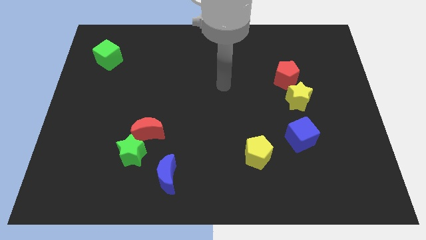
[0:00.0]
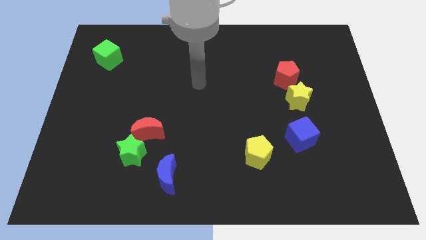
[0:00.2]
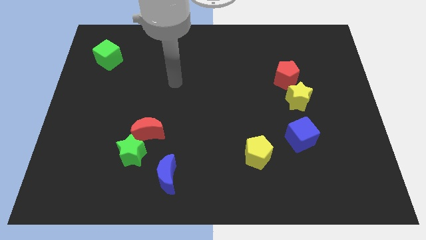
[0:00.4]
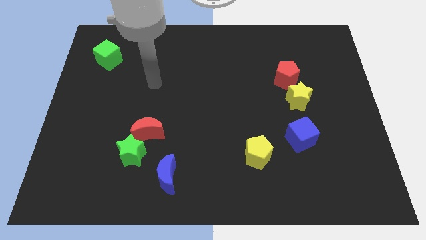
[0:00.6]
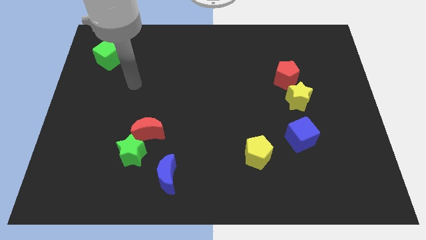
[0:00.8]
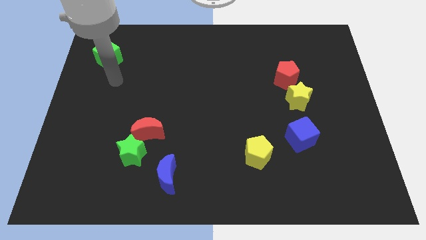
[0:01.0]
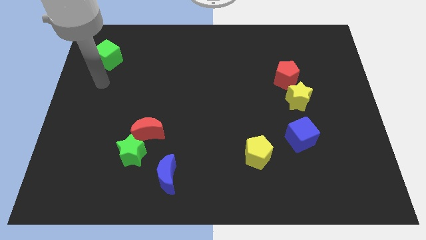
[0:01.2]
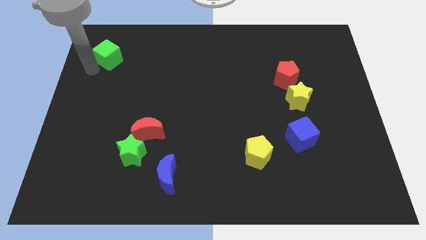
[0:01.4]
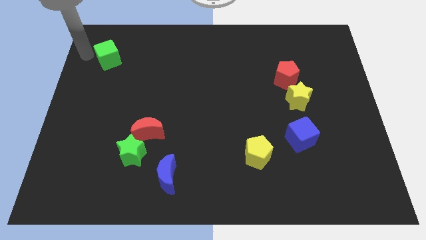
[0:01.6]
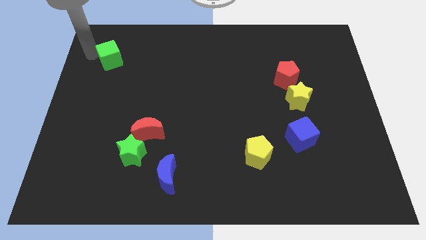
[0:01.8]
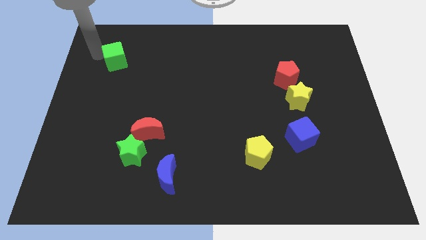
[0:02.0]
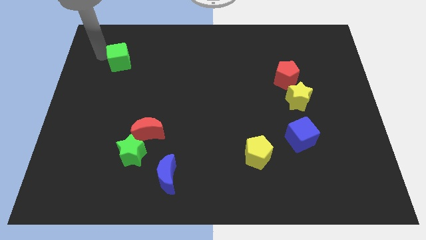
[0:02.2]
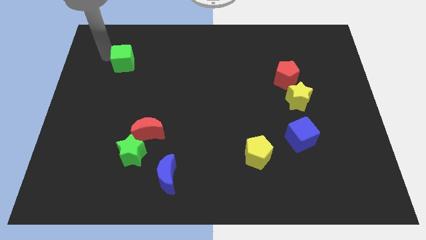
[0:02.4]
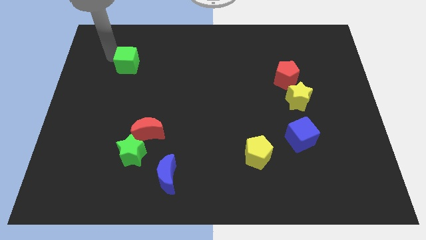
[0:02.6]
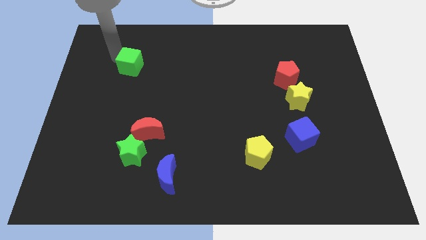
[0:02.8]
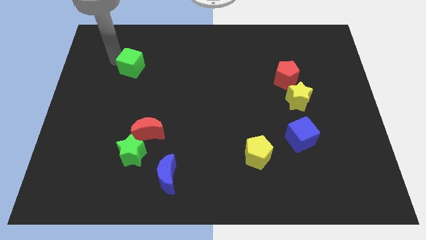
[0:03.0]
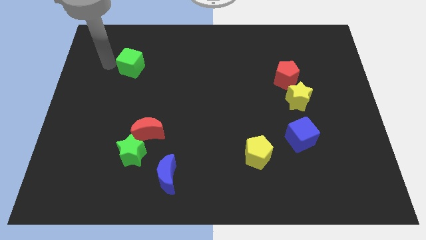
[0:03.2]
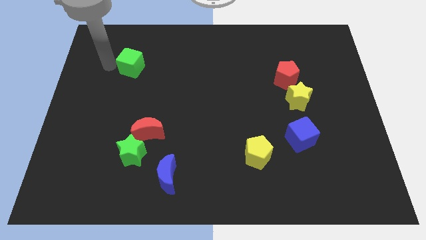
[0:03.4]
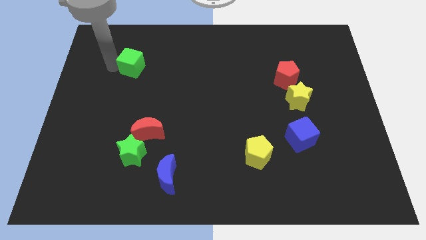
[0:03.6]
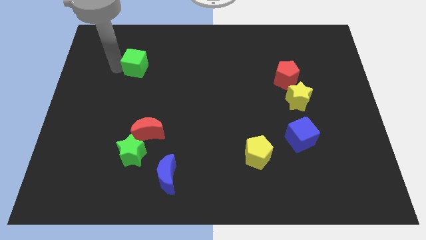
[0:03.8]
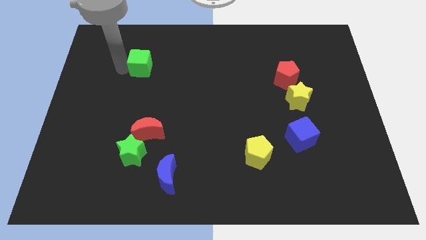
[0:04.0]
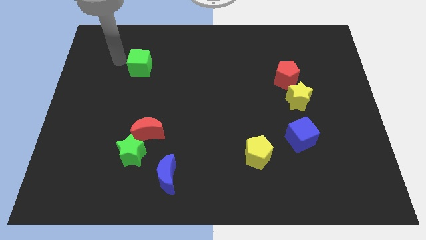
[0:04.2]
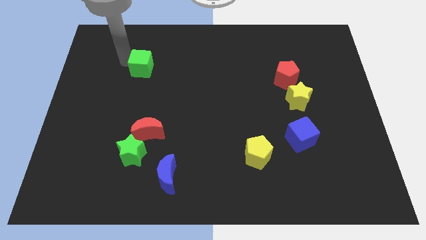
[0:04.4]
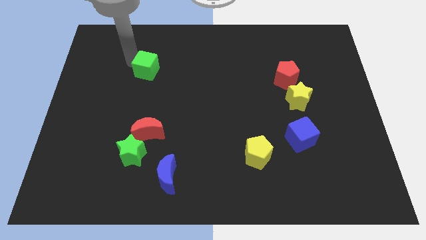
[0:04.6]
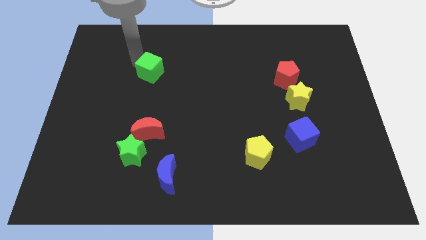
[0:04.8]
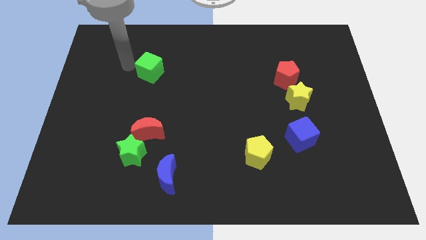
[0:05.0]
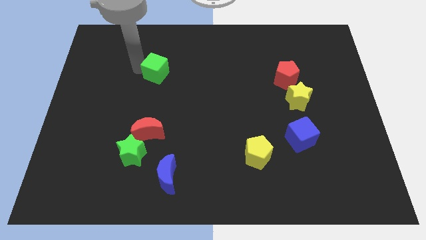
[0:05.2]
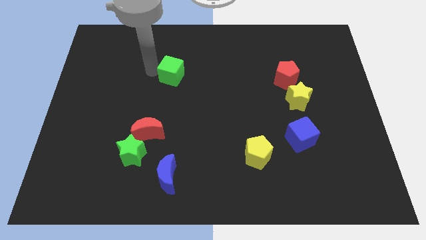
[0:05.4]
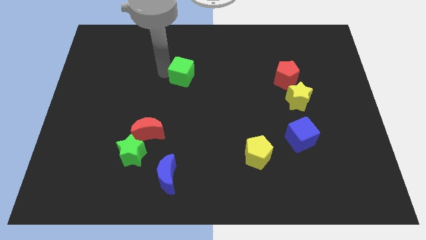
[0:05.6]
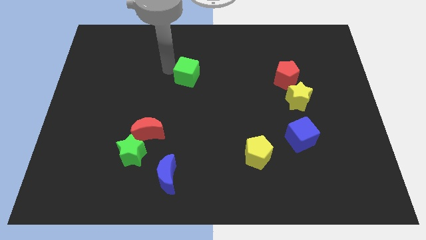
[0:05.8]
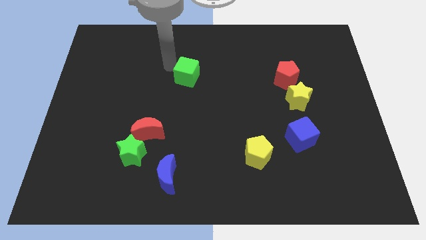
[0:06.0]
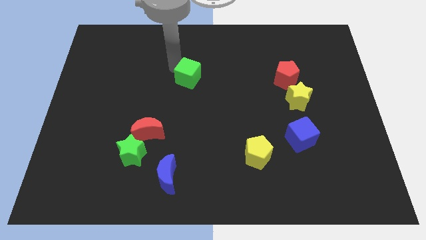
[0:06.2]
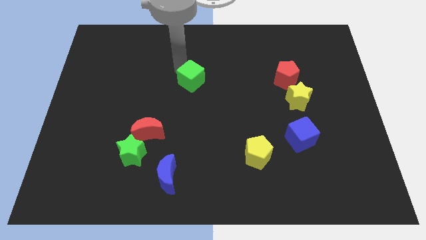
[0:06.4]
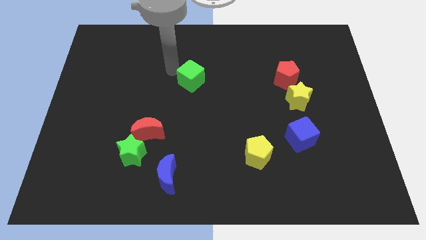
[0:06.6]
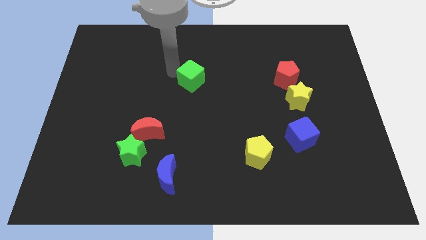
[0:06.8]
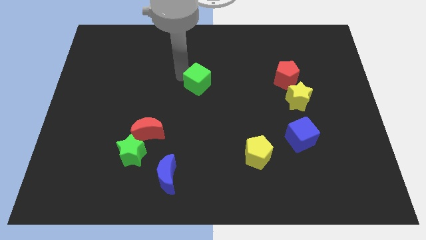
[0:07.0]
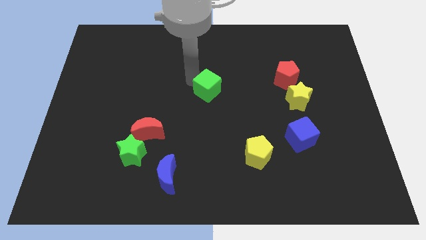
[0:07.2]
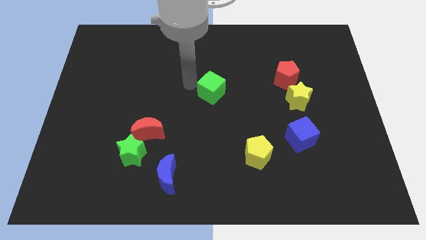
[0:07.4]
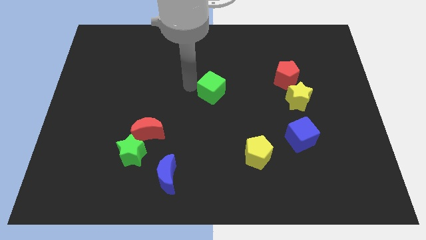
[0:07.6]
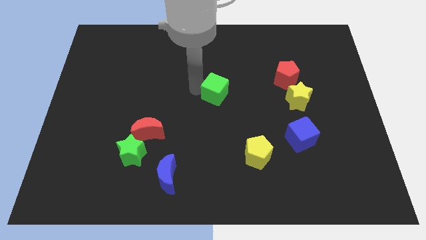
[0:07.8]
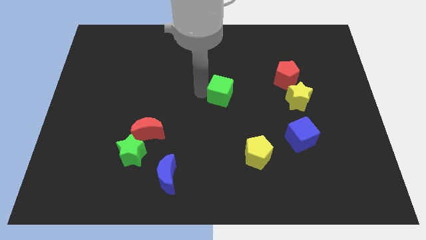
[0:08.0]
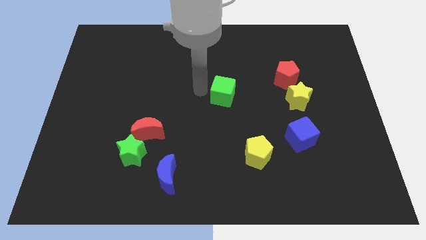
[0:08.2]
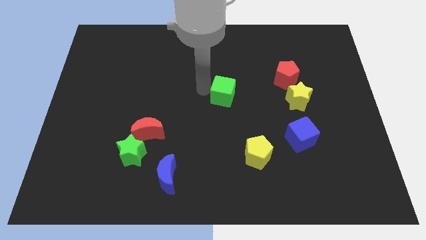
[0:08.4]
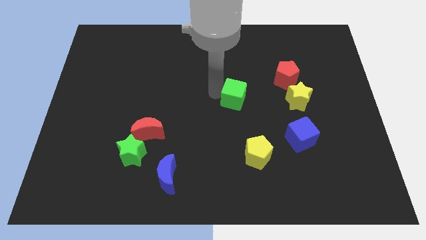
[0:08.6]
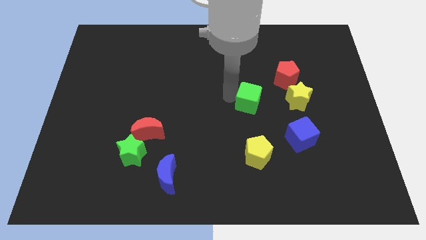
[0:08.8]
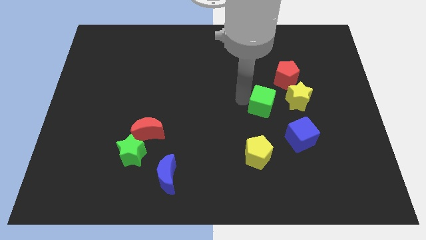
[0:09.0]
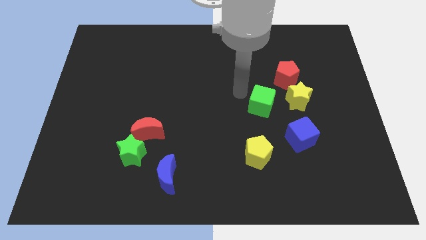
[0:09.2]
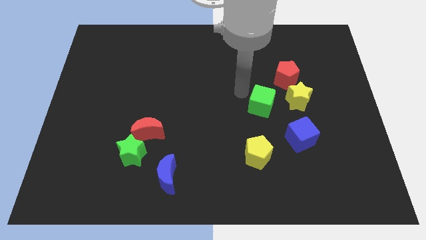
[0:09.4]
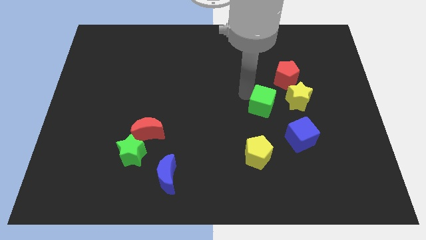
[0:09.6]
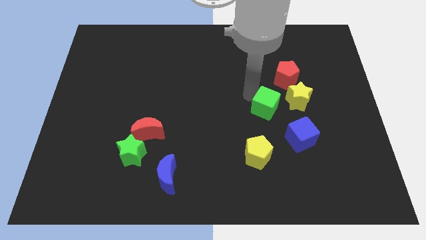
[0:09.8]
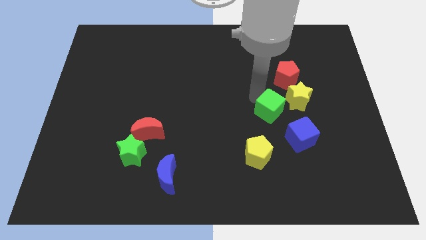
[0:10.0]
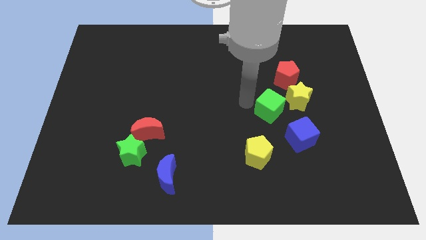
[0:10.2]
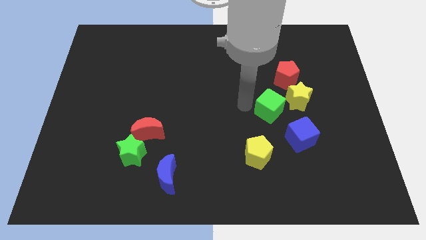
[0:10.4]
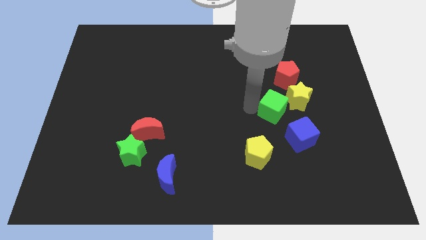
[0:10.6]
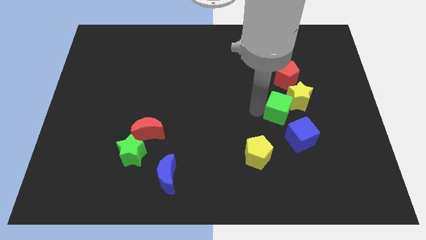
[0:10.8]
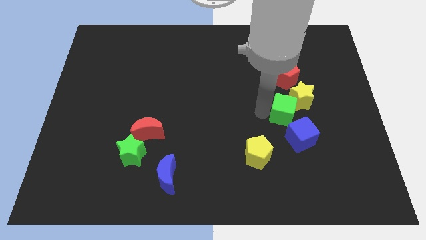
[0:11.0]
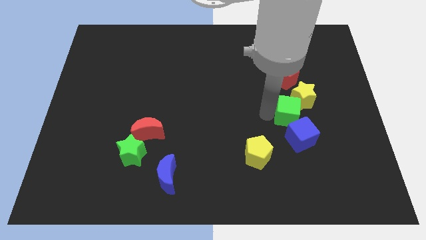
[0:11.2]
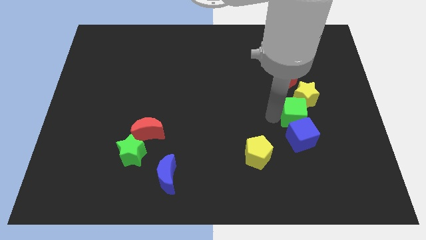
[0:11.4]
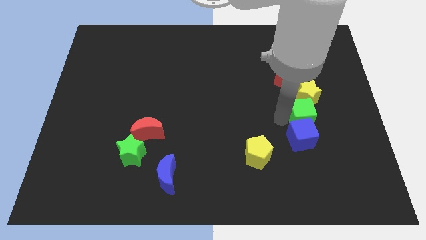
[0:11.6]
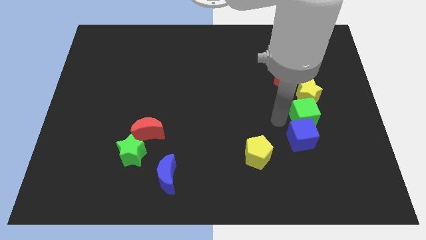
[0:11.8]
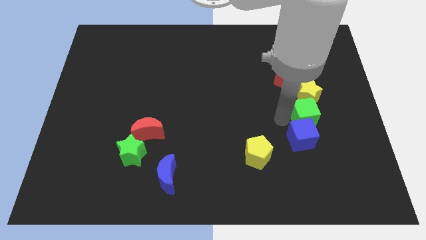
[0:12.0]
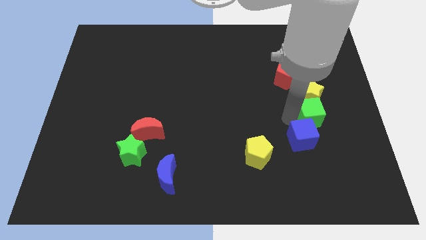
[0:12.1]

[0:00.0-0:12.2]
put the green cube to the bottom right of the yellow star
